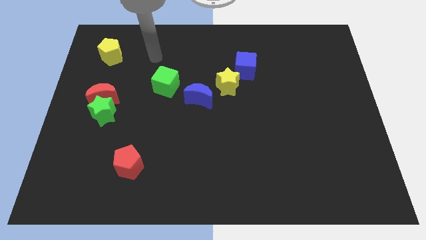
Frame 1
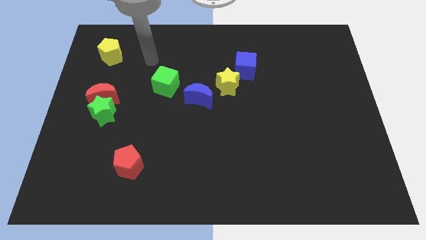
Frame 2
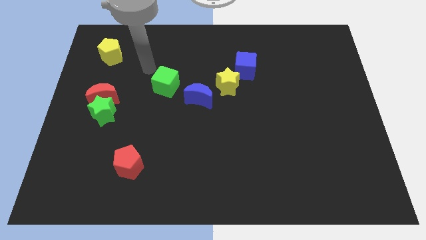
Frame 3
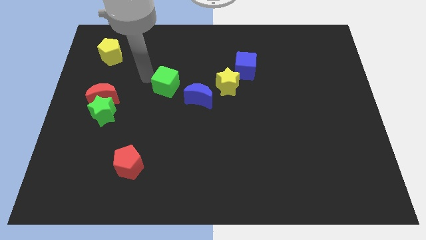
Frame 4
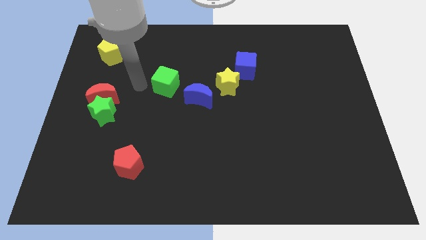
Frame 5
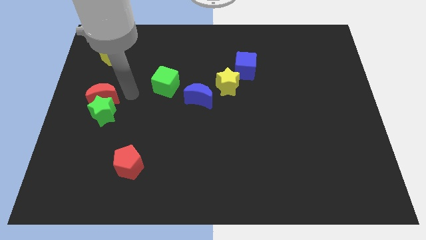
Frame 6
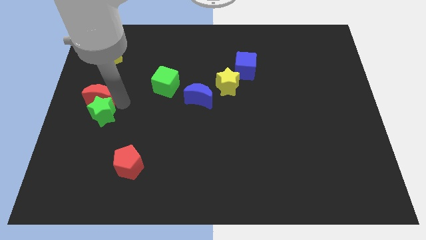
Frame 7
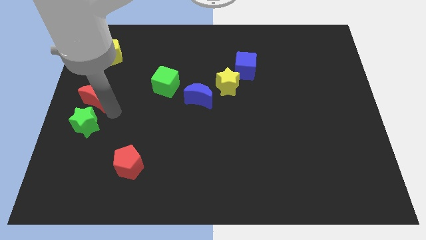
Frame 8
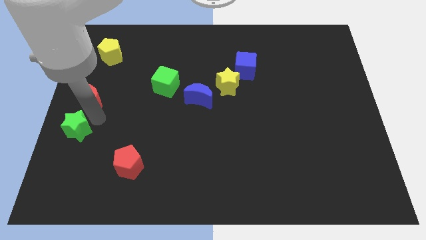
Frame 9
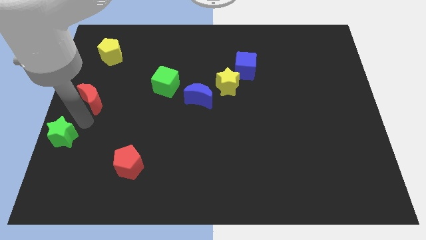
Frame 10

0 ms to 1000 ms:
pull the red moon apart from the green star

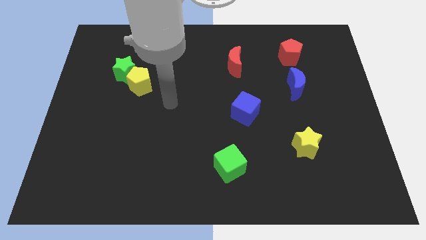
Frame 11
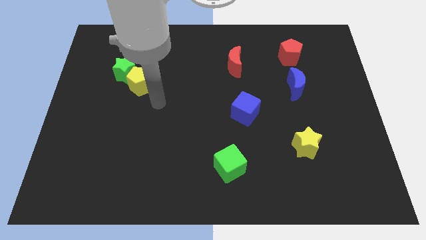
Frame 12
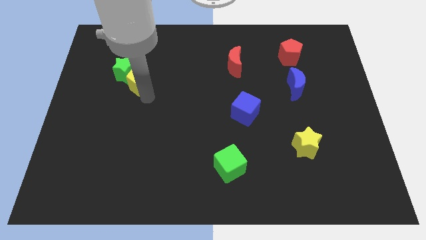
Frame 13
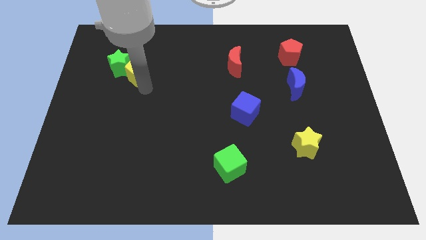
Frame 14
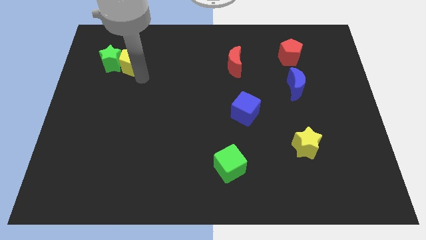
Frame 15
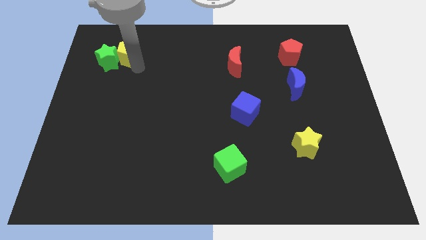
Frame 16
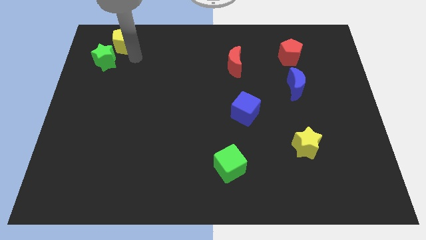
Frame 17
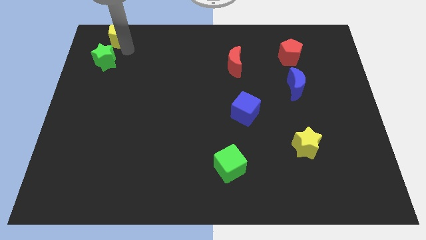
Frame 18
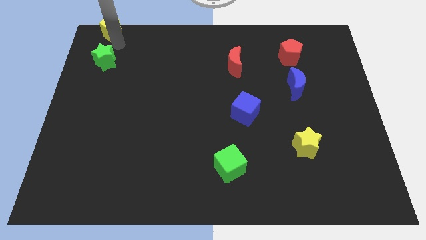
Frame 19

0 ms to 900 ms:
separate the green star from the yellow pentagon

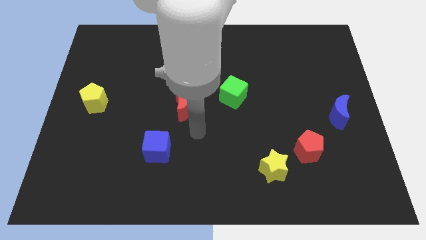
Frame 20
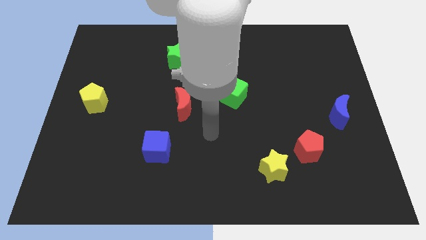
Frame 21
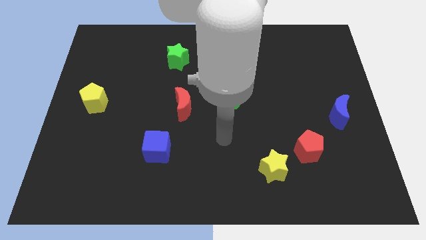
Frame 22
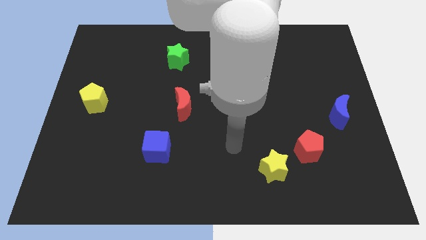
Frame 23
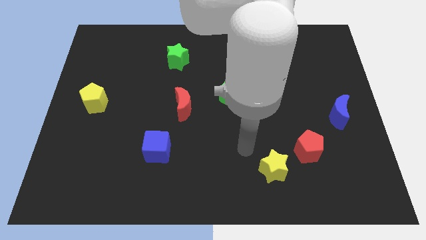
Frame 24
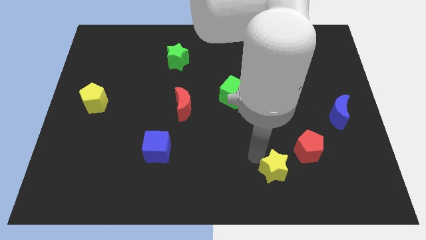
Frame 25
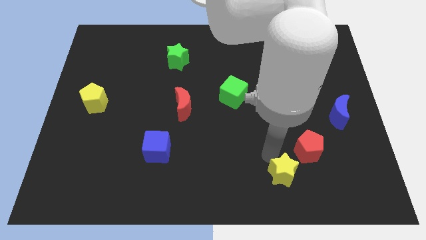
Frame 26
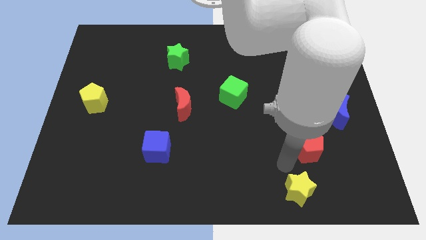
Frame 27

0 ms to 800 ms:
move the red pentagon away from the yellow star

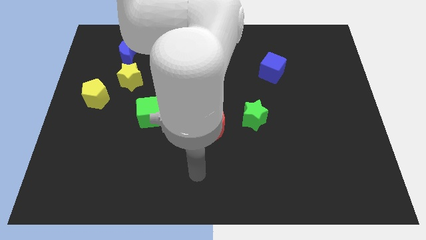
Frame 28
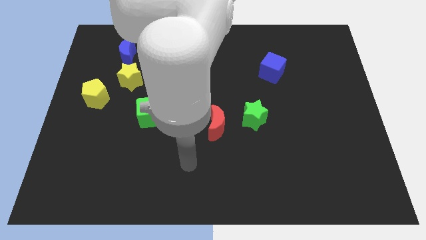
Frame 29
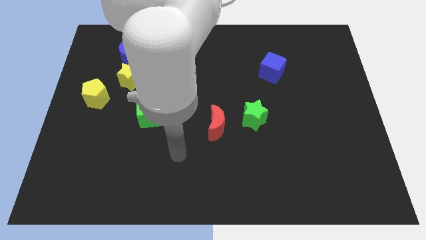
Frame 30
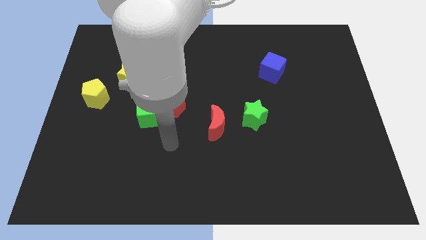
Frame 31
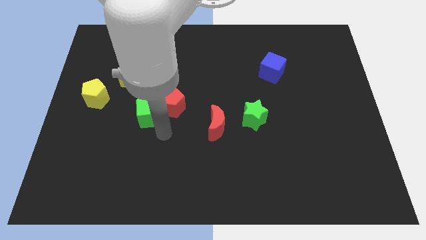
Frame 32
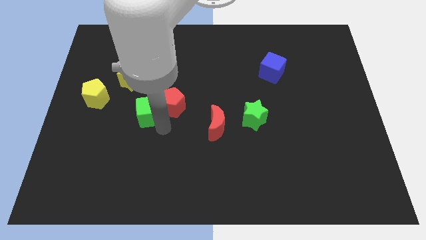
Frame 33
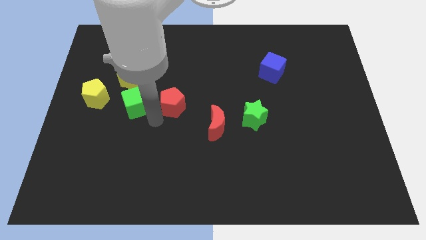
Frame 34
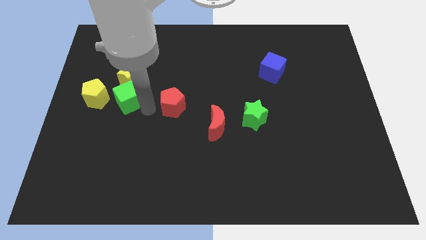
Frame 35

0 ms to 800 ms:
separate the red pentagon from the green cube

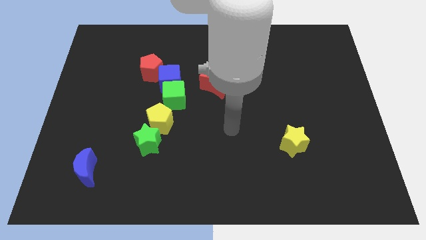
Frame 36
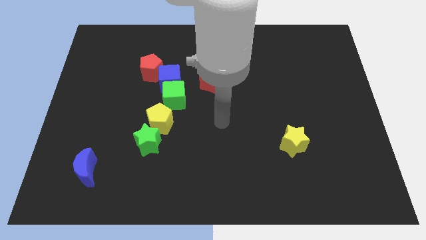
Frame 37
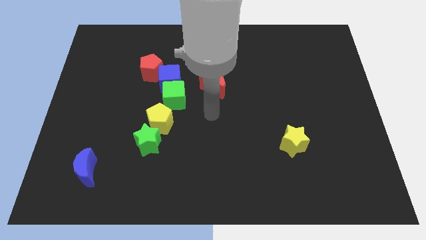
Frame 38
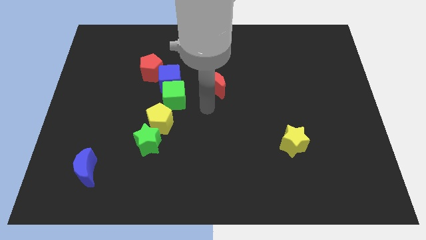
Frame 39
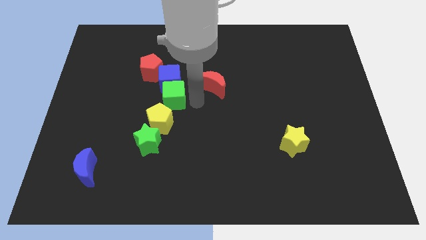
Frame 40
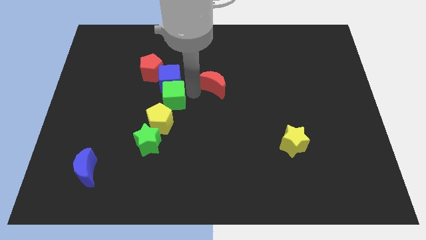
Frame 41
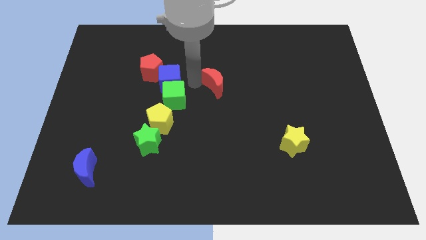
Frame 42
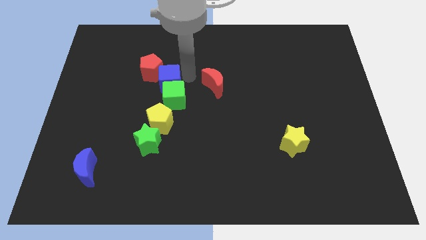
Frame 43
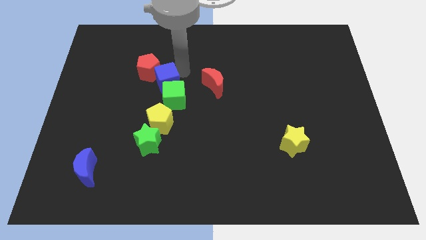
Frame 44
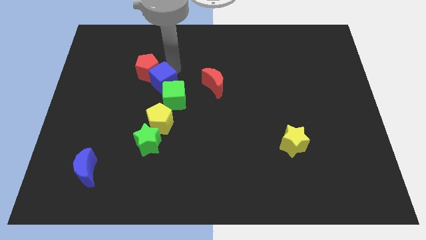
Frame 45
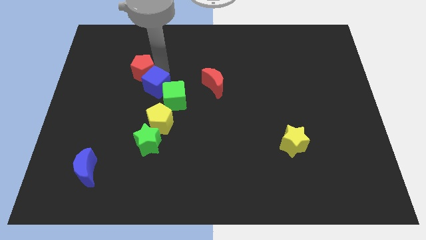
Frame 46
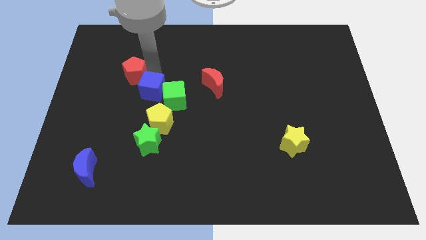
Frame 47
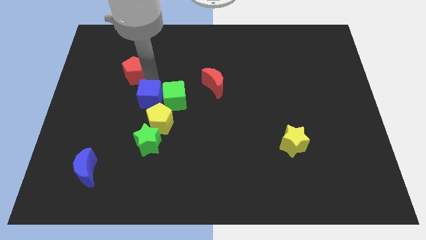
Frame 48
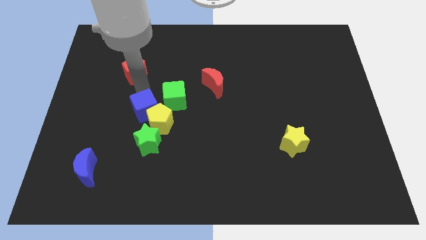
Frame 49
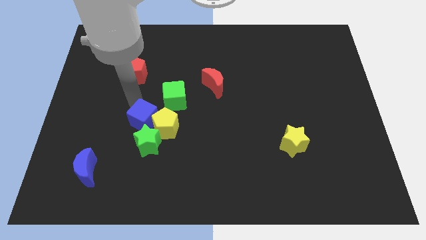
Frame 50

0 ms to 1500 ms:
pull the blue cube apart from the green cube and red pentagon

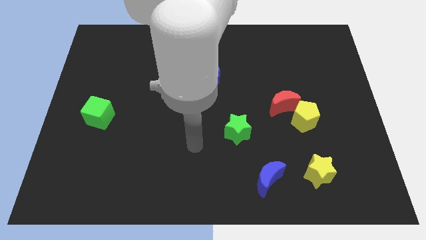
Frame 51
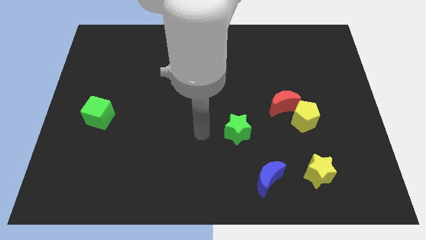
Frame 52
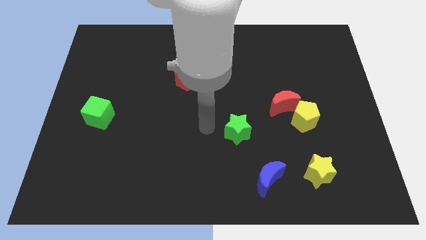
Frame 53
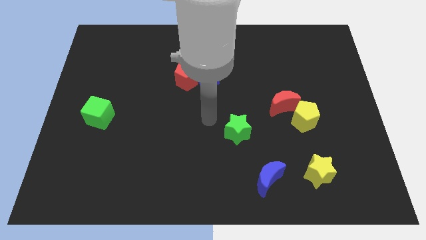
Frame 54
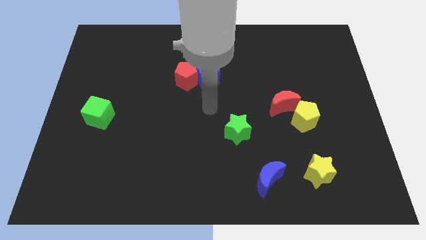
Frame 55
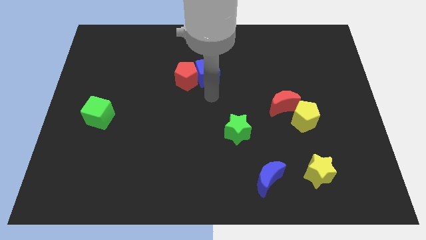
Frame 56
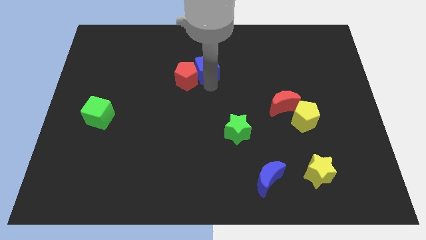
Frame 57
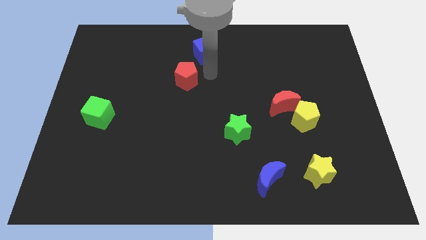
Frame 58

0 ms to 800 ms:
pull the red pentagon apart from the blue cube

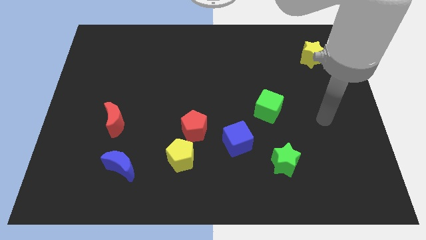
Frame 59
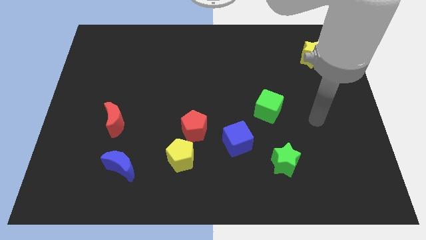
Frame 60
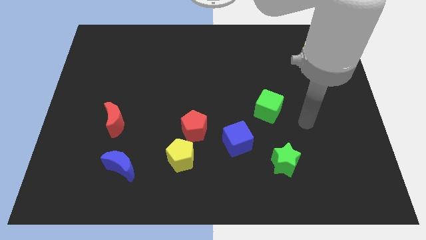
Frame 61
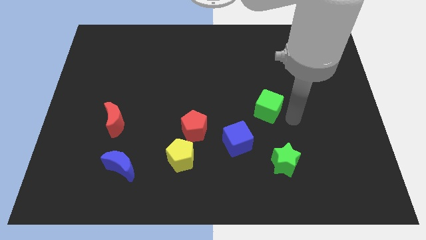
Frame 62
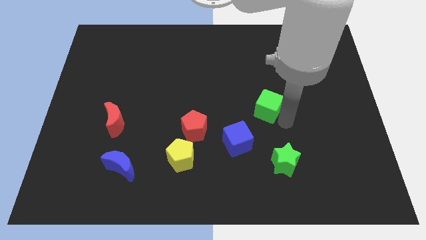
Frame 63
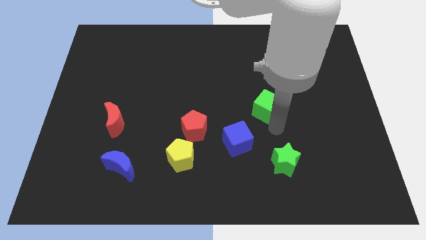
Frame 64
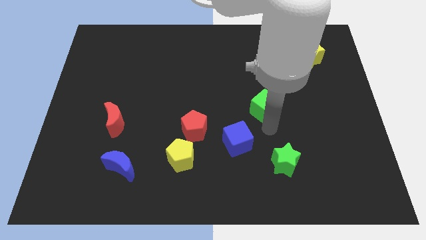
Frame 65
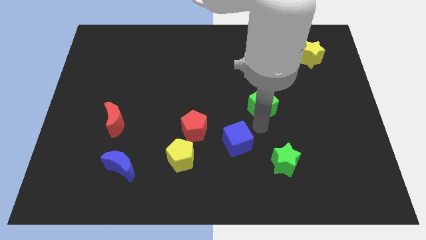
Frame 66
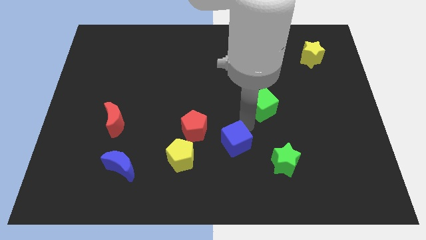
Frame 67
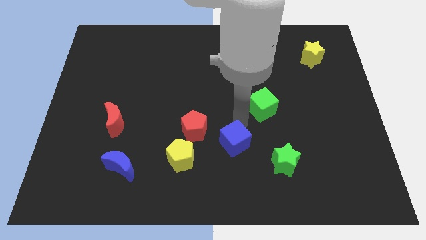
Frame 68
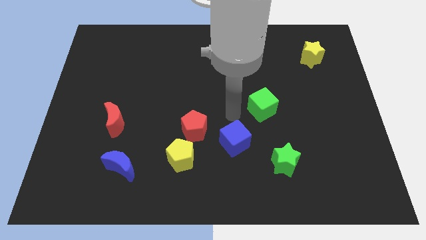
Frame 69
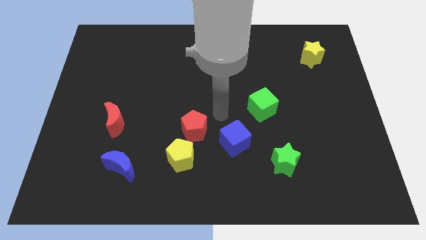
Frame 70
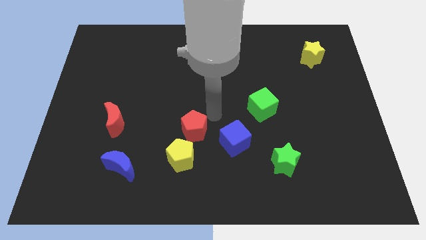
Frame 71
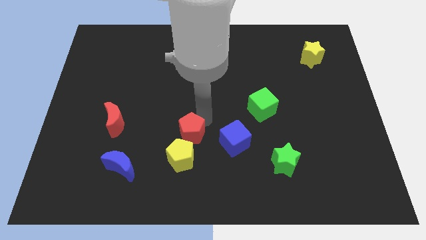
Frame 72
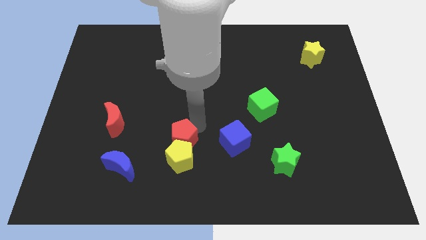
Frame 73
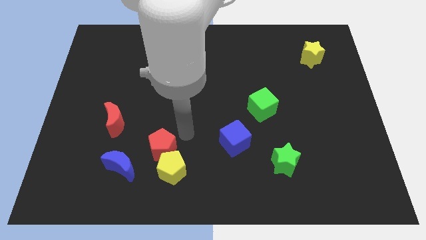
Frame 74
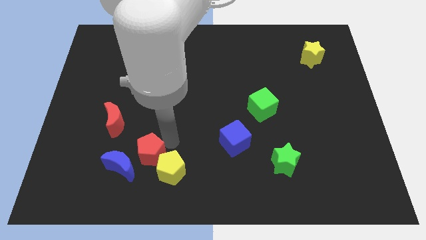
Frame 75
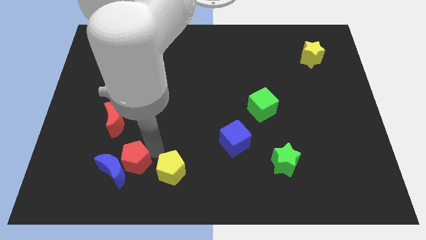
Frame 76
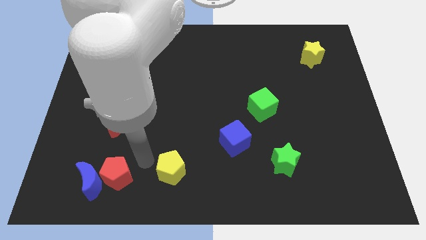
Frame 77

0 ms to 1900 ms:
pull the yellow pentagon apart from the red pentagon

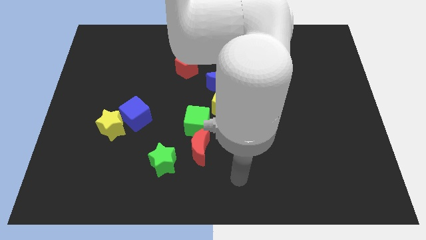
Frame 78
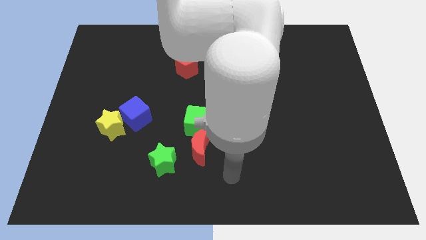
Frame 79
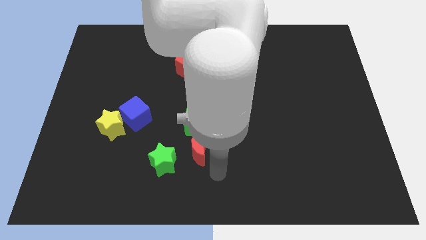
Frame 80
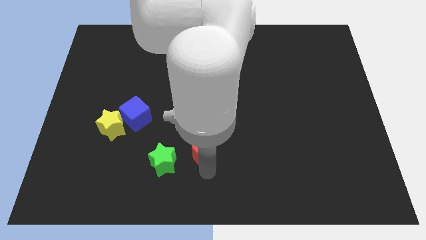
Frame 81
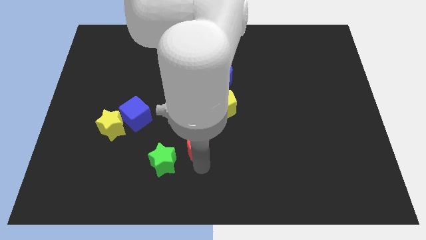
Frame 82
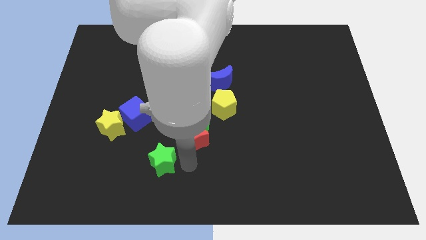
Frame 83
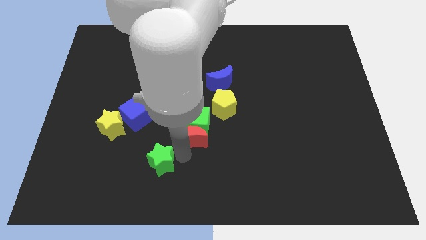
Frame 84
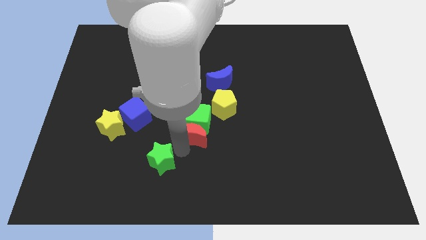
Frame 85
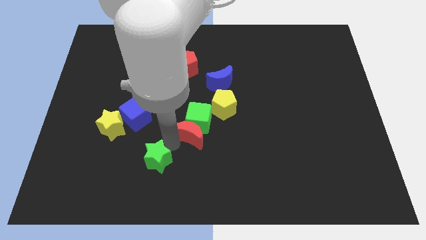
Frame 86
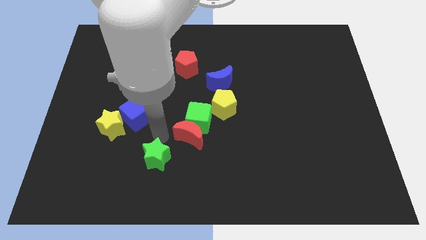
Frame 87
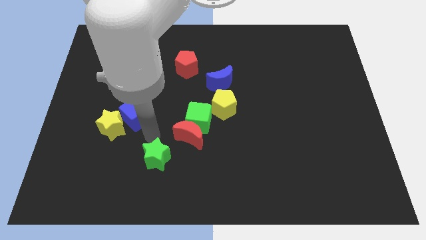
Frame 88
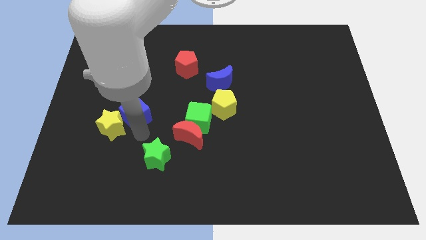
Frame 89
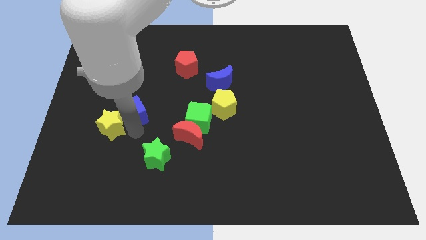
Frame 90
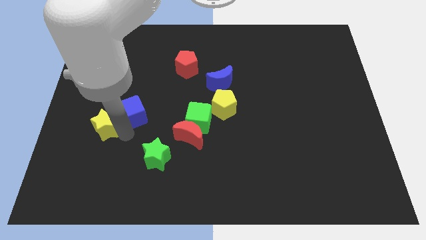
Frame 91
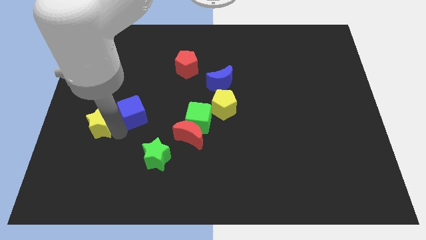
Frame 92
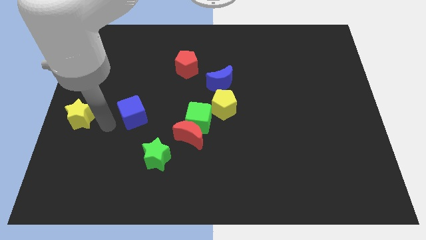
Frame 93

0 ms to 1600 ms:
pull the blue cube apart from the yellow star

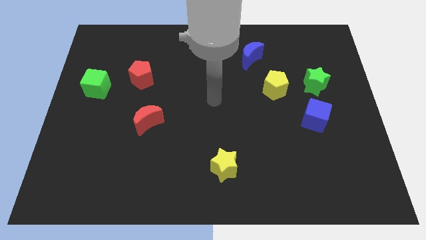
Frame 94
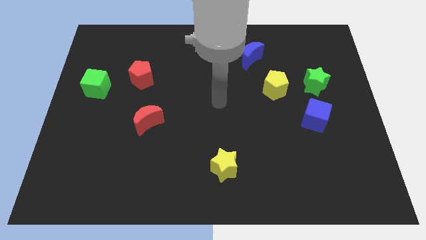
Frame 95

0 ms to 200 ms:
move the green star away from the yellow pentagon
